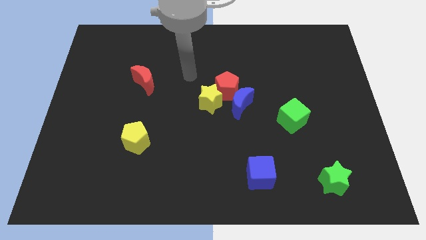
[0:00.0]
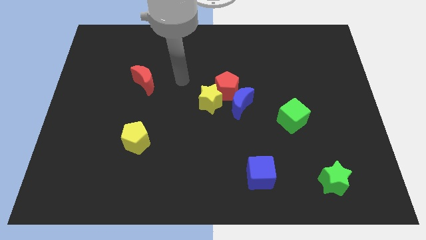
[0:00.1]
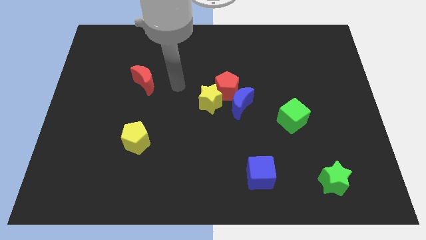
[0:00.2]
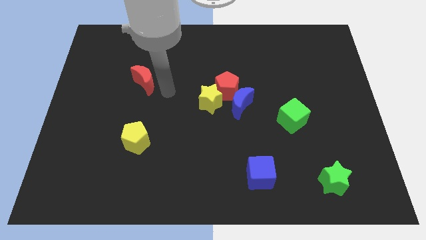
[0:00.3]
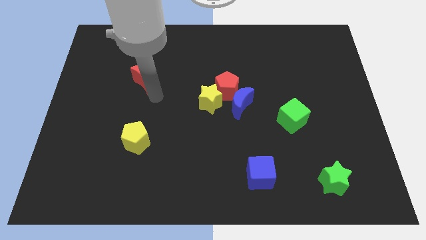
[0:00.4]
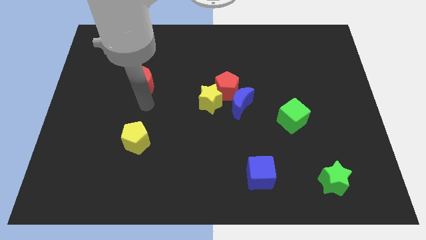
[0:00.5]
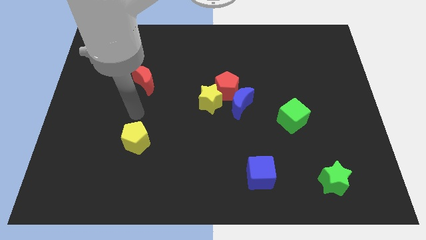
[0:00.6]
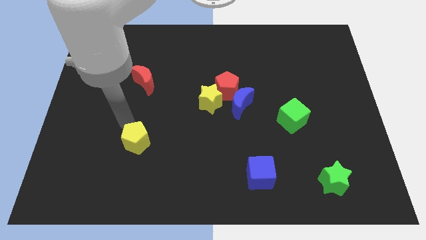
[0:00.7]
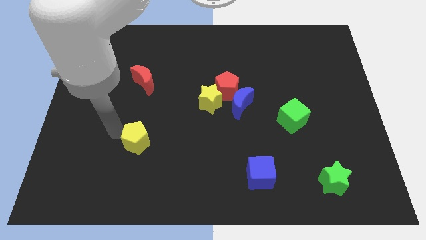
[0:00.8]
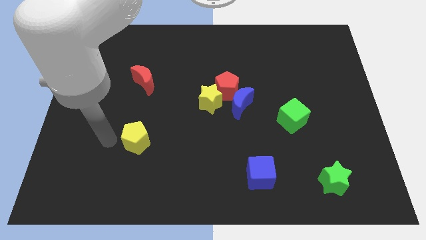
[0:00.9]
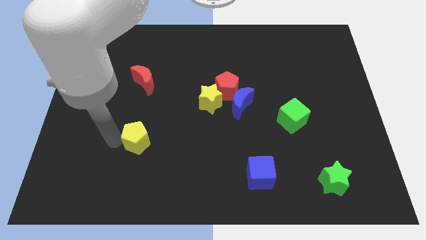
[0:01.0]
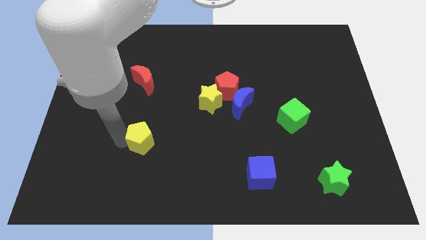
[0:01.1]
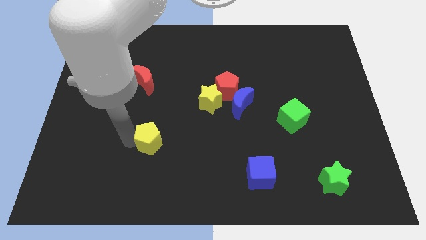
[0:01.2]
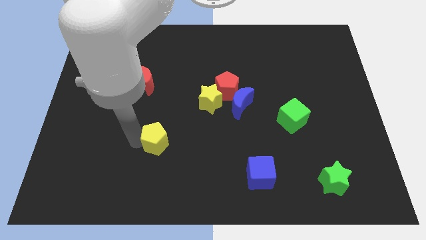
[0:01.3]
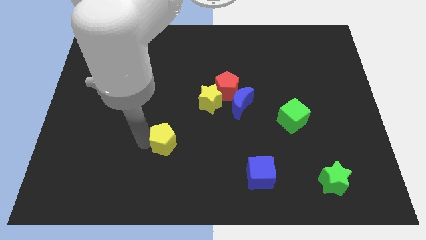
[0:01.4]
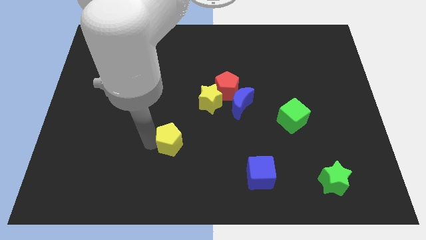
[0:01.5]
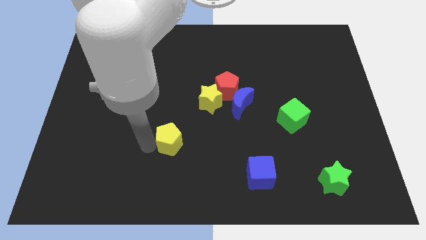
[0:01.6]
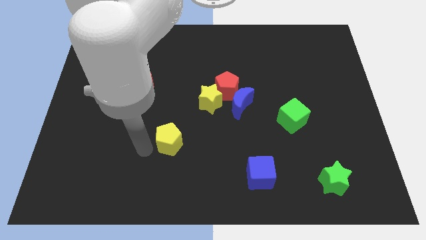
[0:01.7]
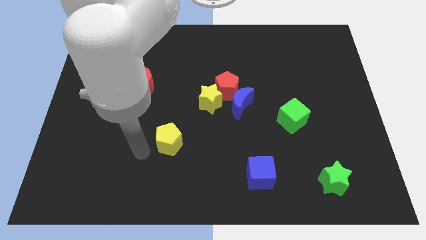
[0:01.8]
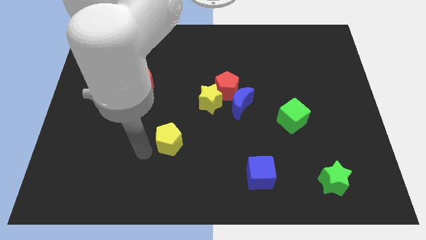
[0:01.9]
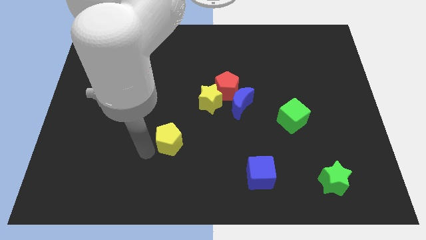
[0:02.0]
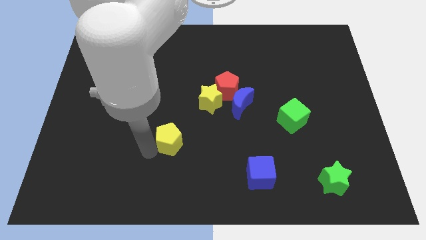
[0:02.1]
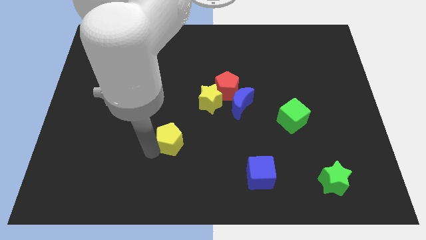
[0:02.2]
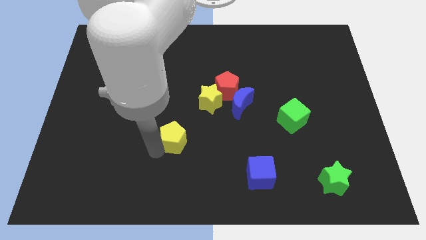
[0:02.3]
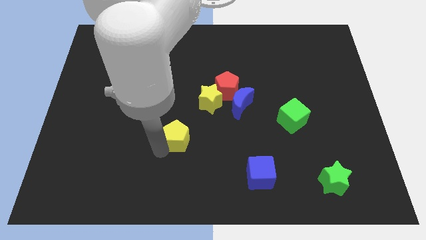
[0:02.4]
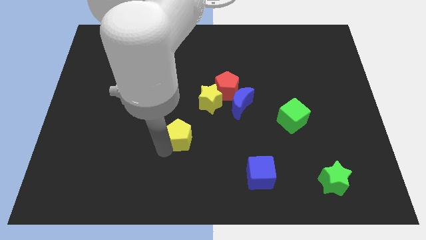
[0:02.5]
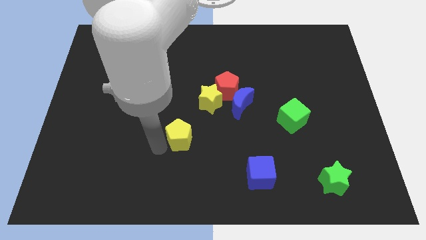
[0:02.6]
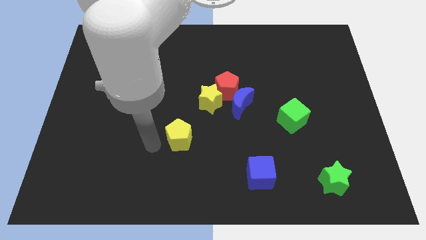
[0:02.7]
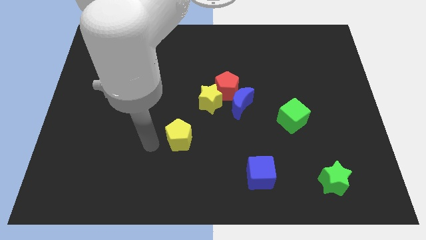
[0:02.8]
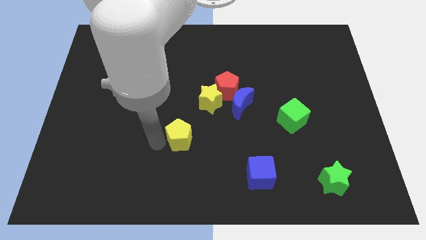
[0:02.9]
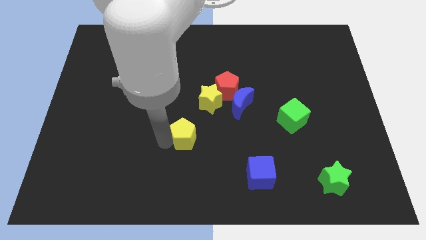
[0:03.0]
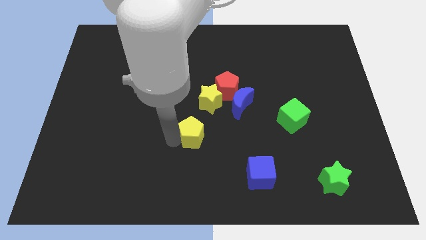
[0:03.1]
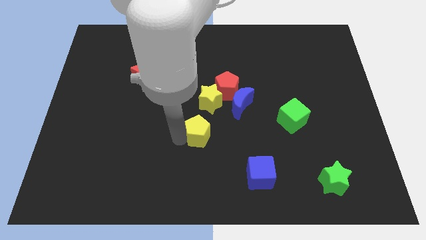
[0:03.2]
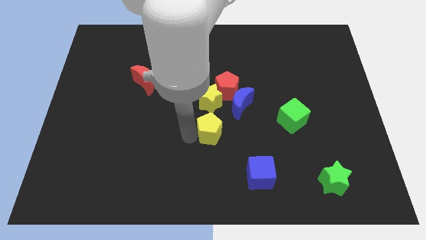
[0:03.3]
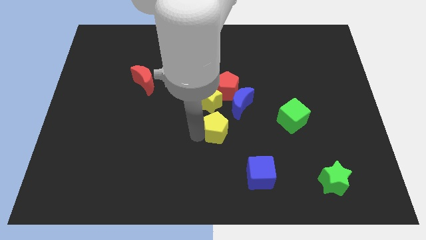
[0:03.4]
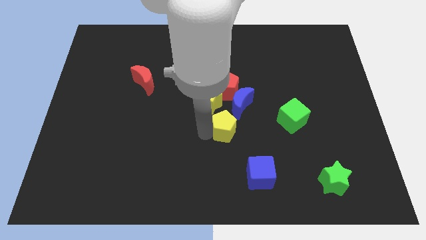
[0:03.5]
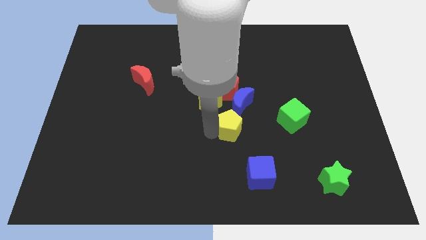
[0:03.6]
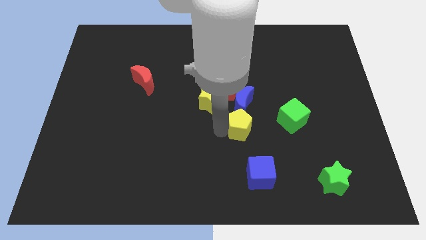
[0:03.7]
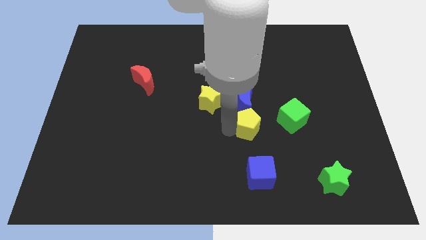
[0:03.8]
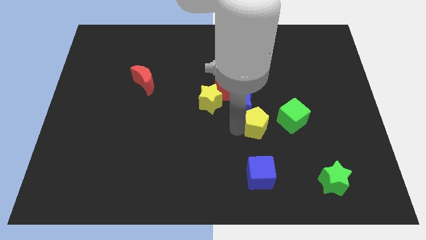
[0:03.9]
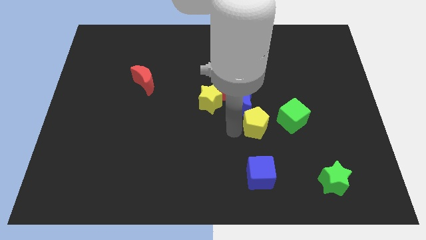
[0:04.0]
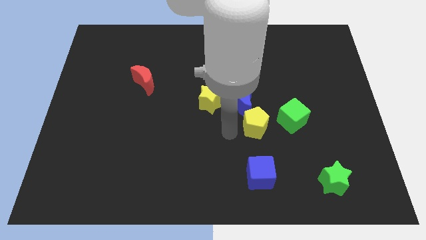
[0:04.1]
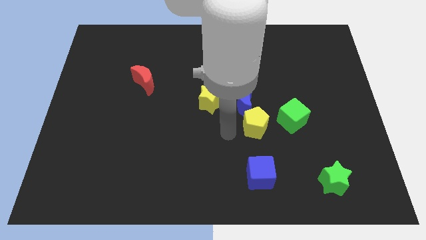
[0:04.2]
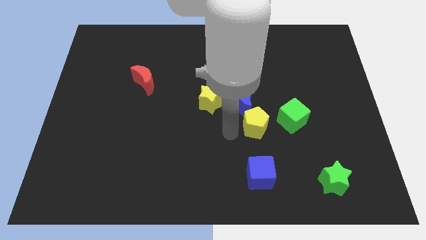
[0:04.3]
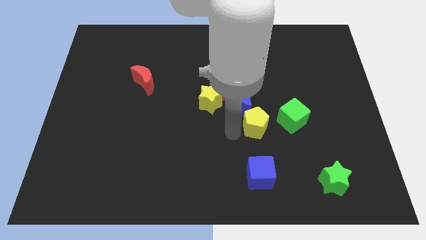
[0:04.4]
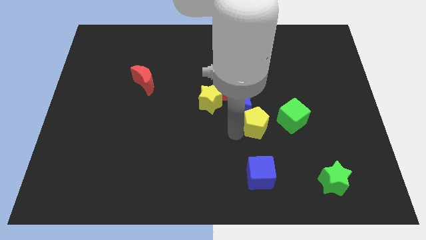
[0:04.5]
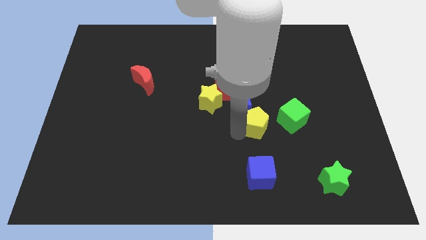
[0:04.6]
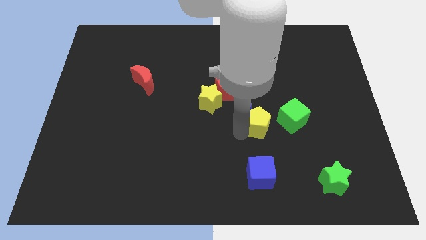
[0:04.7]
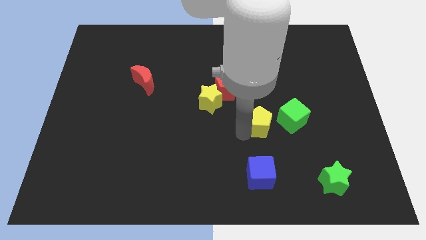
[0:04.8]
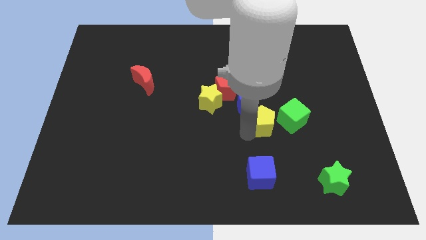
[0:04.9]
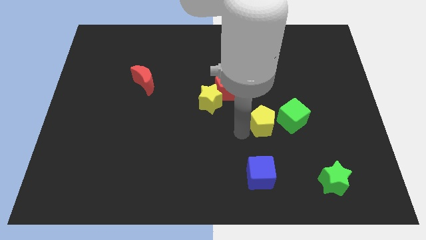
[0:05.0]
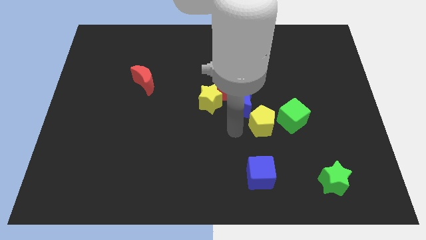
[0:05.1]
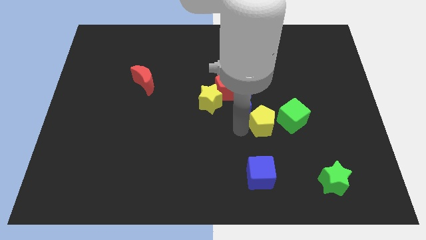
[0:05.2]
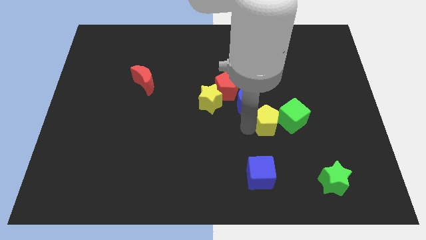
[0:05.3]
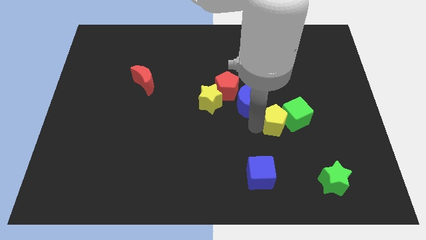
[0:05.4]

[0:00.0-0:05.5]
move the yellow pentagon next to the green cube
